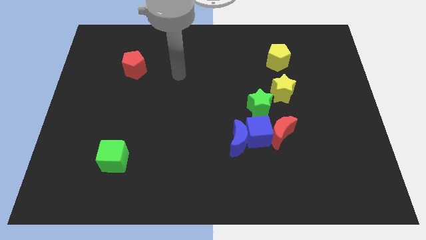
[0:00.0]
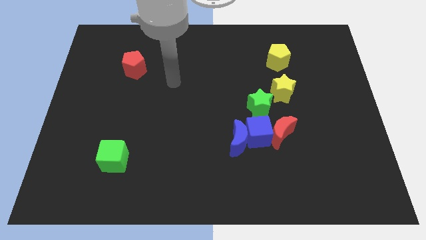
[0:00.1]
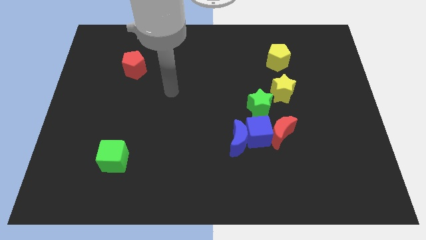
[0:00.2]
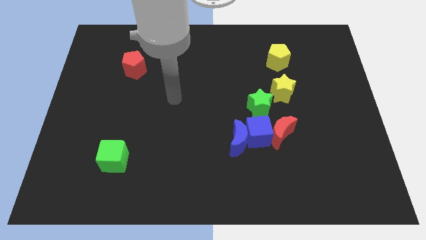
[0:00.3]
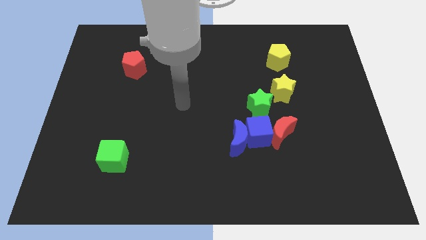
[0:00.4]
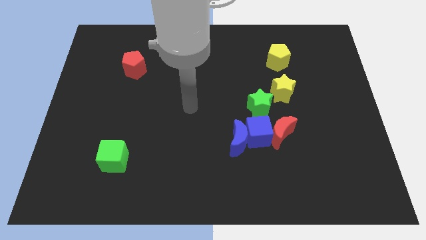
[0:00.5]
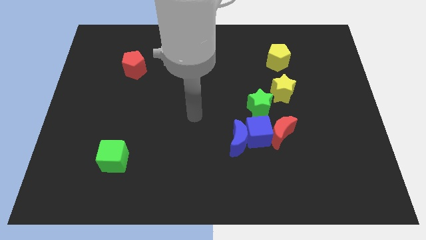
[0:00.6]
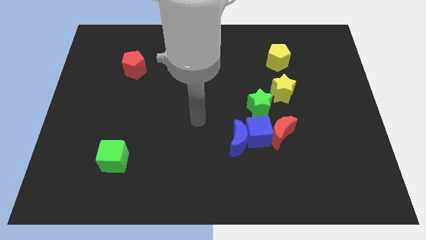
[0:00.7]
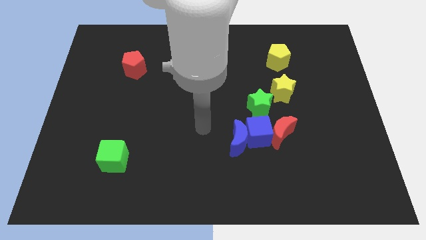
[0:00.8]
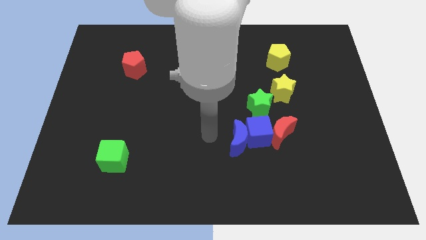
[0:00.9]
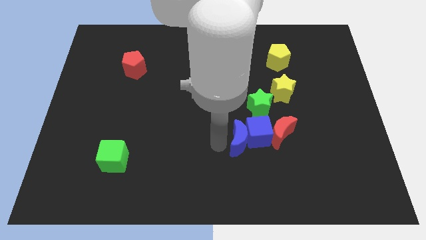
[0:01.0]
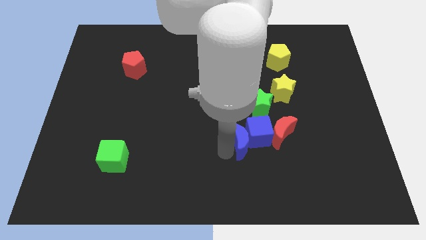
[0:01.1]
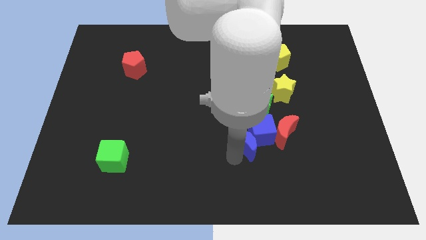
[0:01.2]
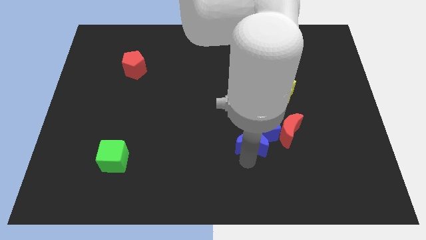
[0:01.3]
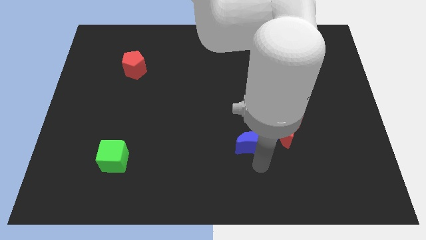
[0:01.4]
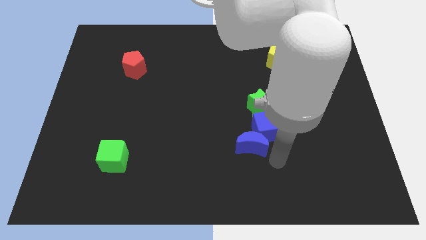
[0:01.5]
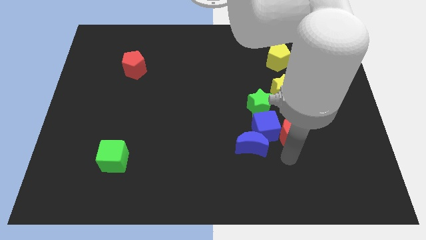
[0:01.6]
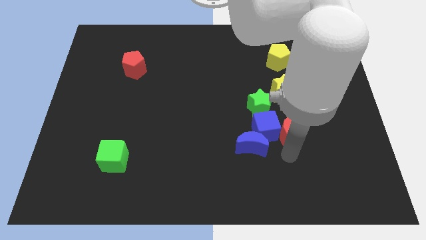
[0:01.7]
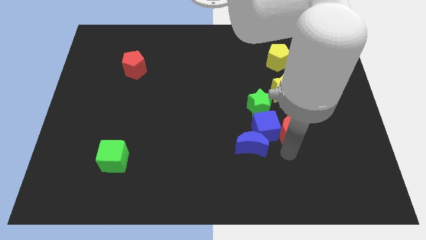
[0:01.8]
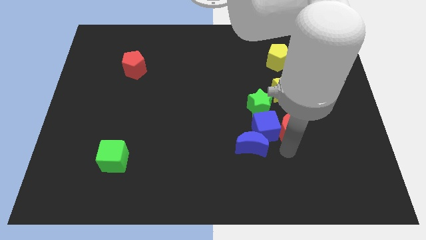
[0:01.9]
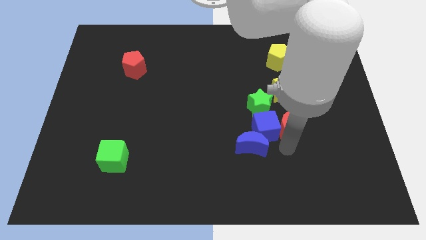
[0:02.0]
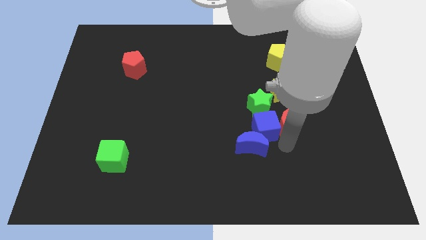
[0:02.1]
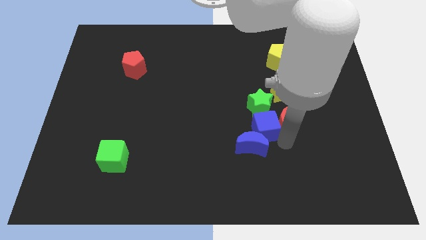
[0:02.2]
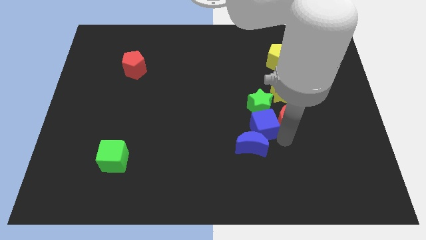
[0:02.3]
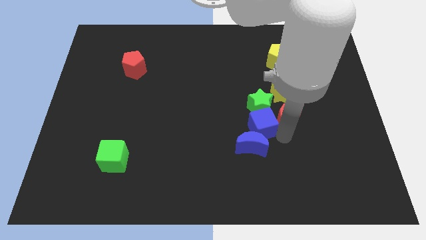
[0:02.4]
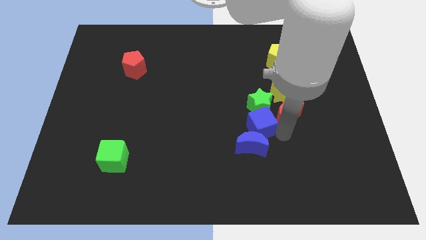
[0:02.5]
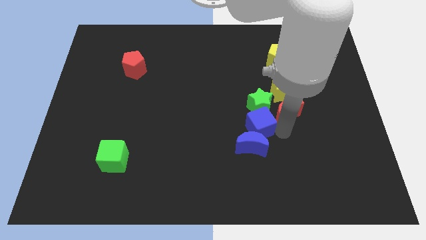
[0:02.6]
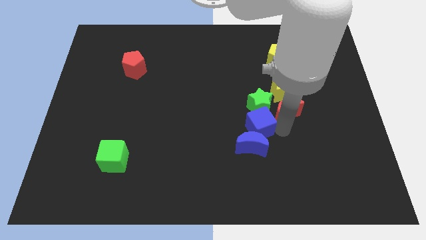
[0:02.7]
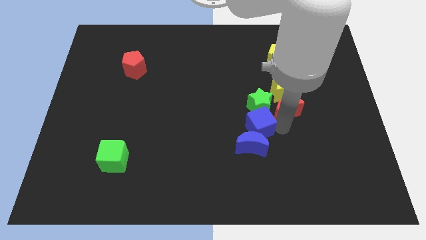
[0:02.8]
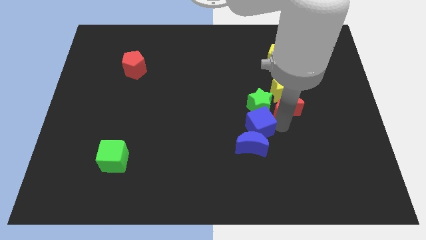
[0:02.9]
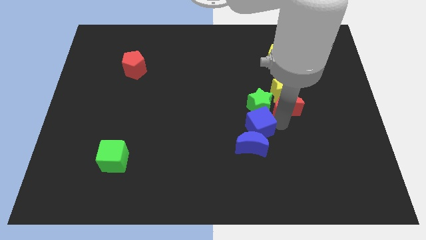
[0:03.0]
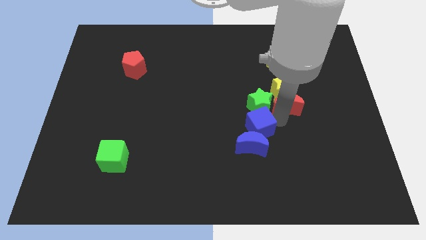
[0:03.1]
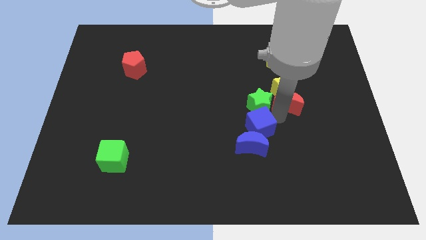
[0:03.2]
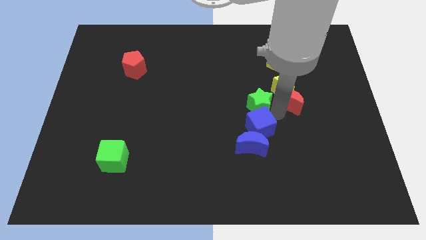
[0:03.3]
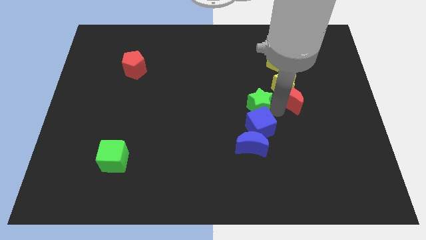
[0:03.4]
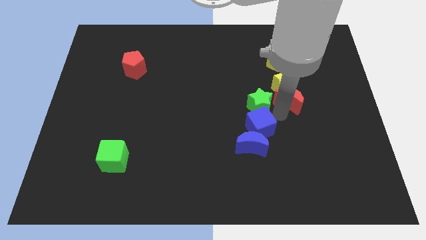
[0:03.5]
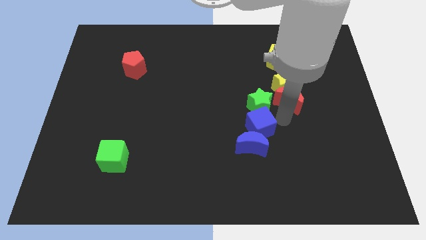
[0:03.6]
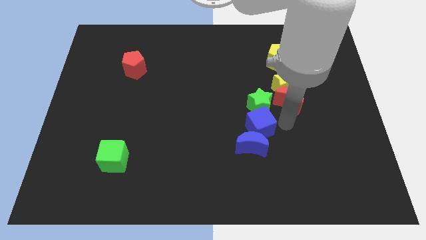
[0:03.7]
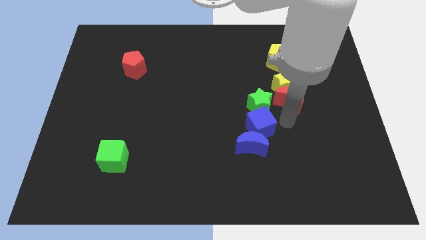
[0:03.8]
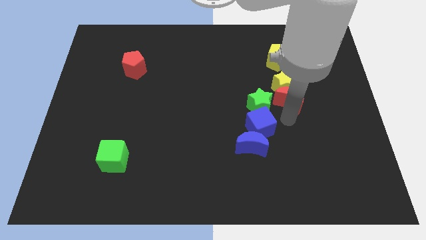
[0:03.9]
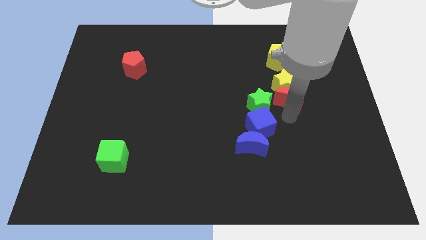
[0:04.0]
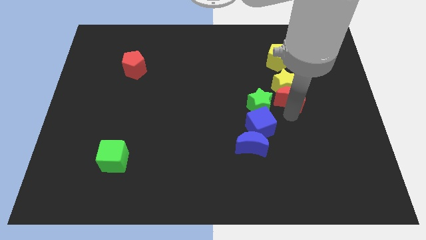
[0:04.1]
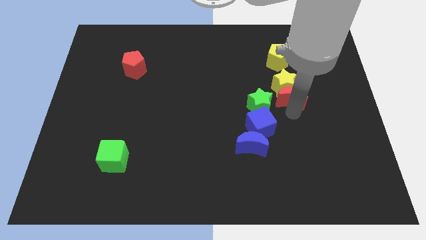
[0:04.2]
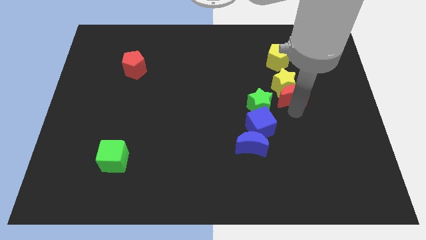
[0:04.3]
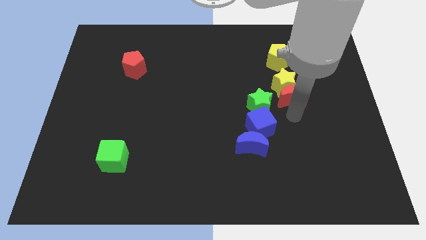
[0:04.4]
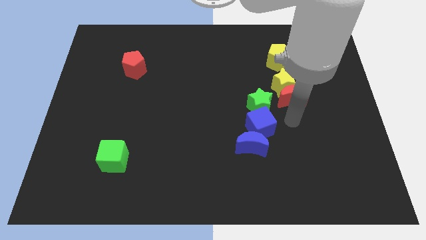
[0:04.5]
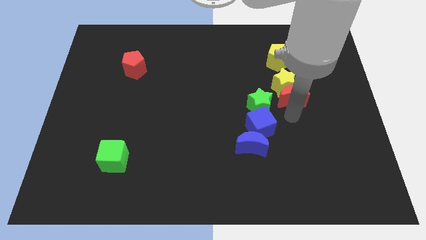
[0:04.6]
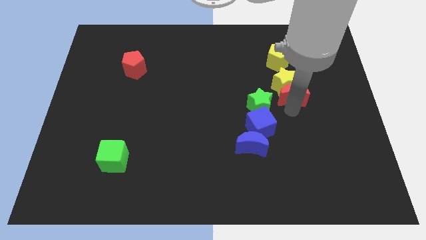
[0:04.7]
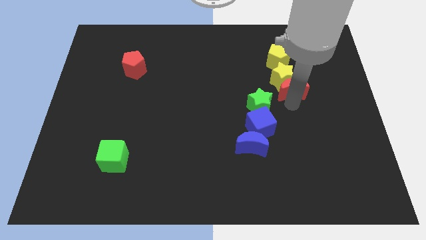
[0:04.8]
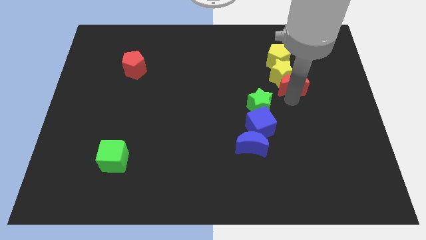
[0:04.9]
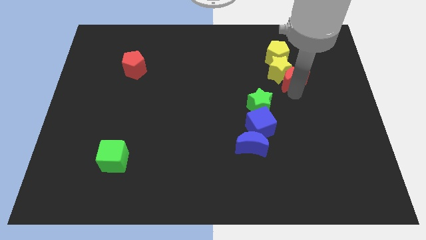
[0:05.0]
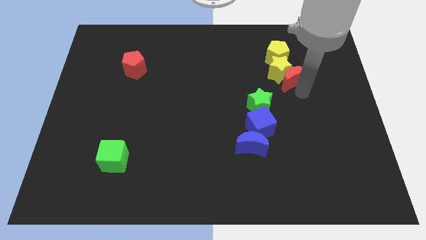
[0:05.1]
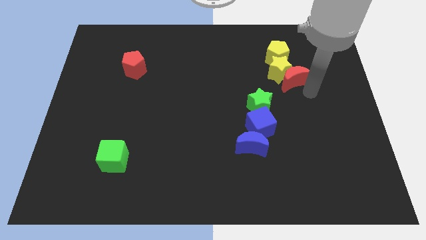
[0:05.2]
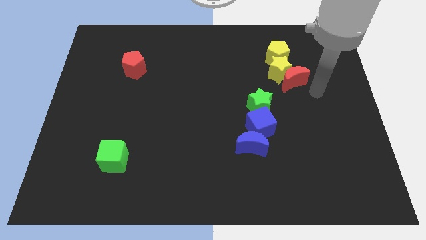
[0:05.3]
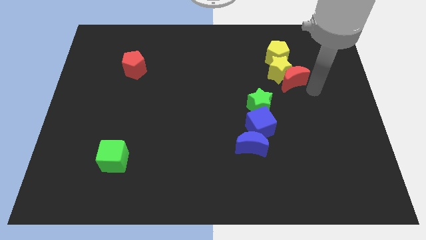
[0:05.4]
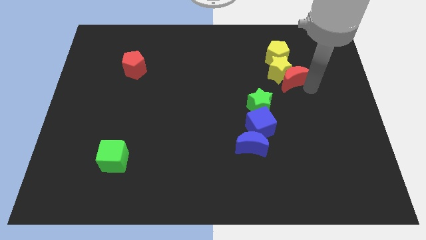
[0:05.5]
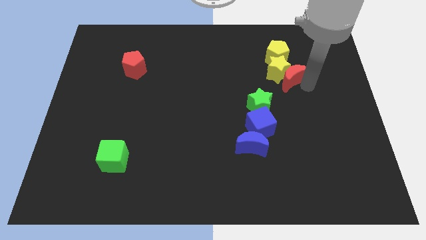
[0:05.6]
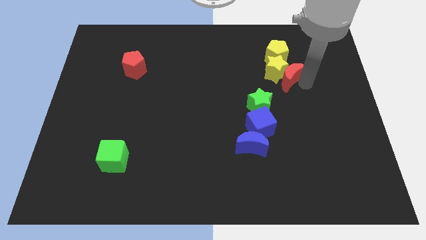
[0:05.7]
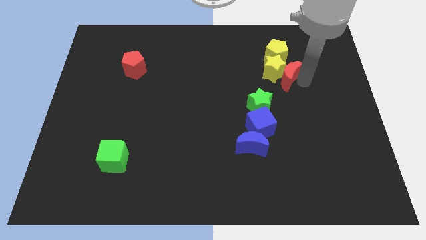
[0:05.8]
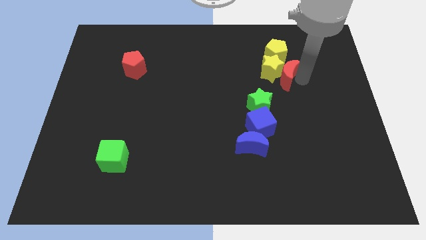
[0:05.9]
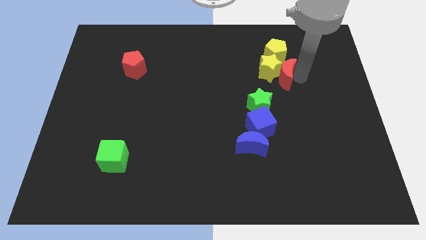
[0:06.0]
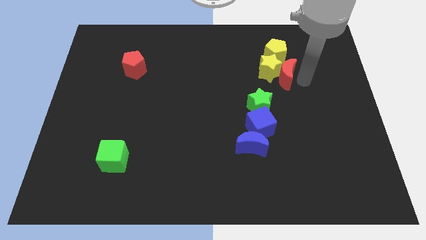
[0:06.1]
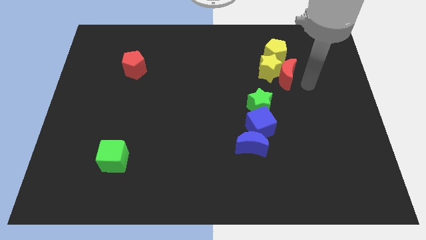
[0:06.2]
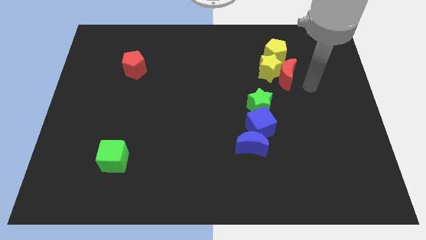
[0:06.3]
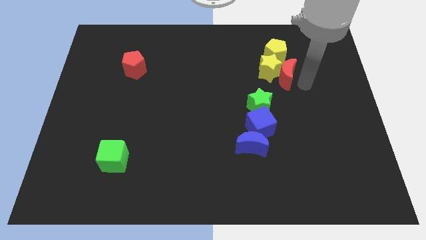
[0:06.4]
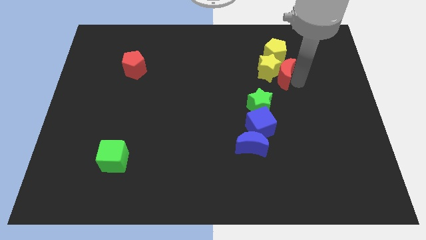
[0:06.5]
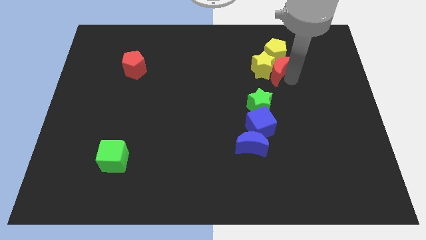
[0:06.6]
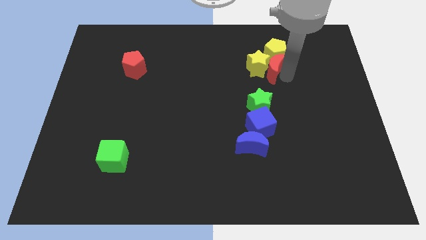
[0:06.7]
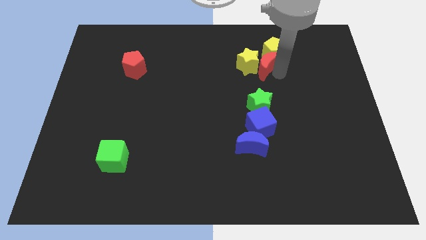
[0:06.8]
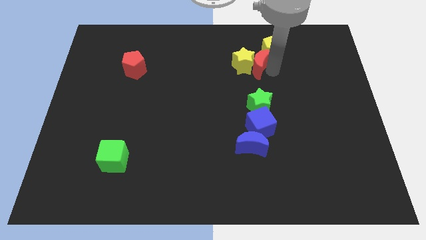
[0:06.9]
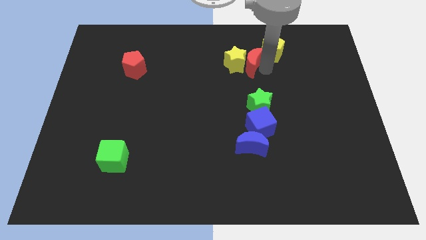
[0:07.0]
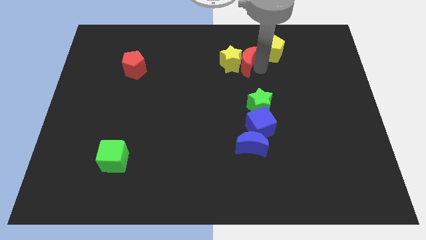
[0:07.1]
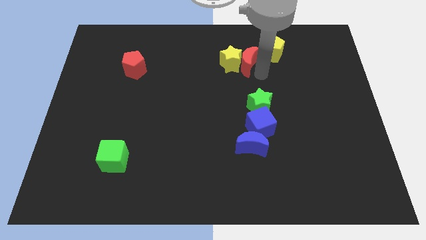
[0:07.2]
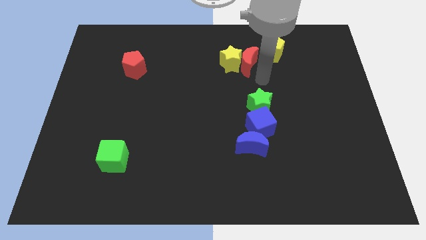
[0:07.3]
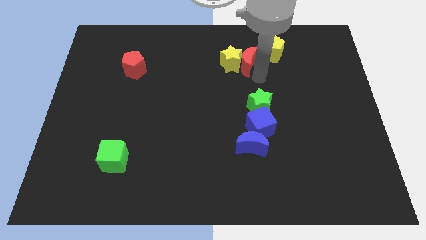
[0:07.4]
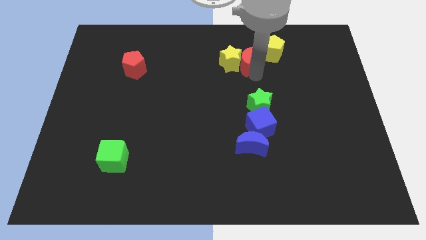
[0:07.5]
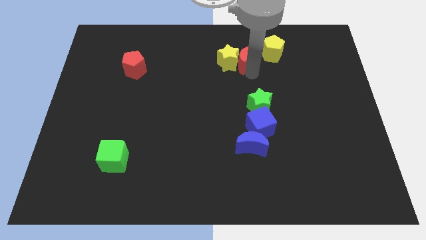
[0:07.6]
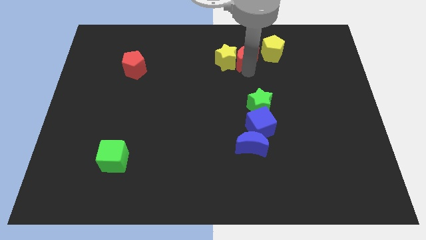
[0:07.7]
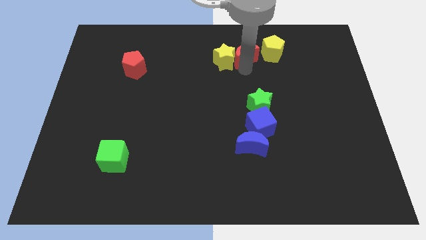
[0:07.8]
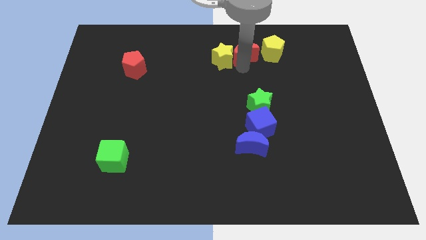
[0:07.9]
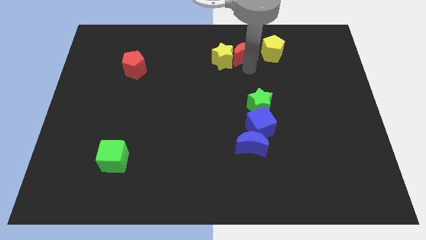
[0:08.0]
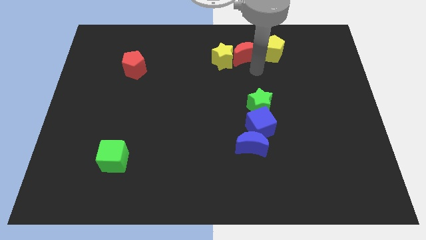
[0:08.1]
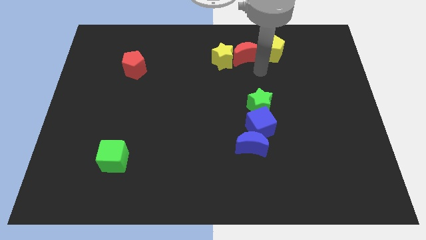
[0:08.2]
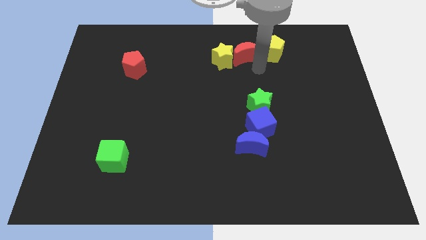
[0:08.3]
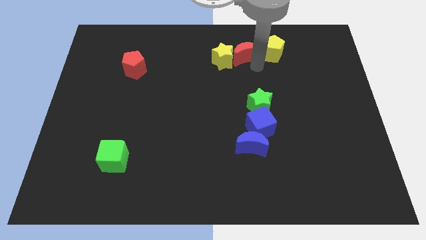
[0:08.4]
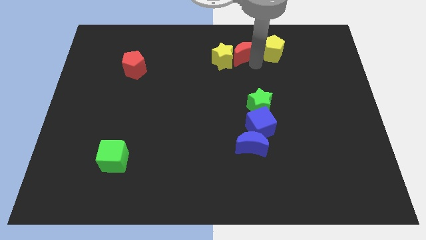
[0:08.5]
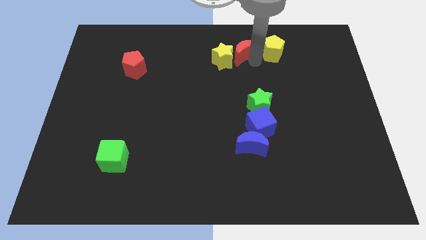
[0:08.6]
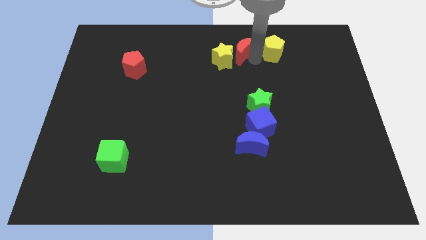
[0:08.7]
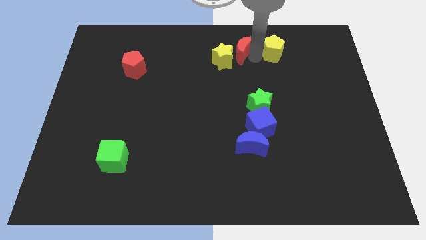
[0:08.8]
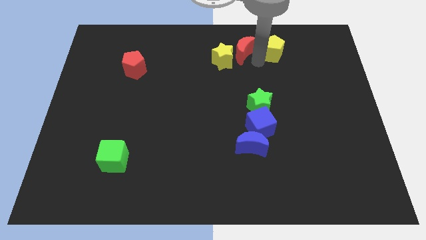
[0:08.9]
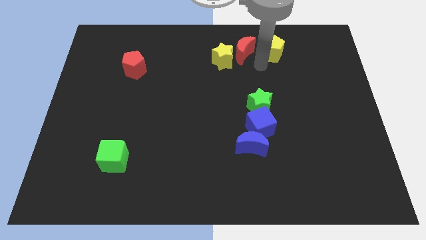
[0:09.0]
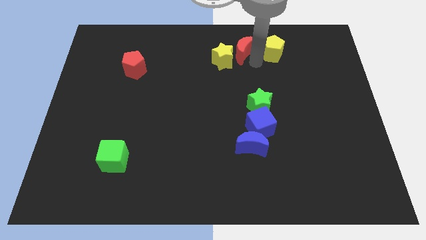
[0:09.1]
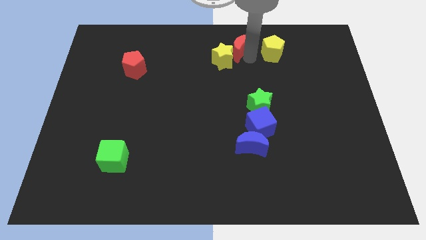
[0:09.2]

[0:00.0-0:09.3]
slide the red moon to the towards your base
